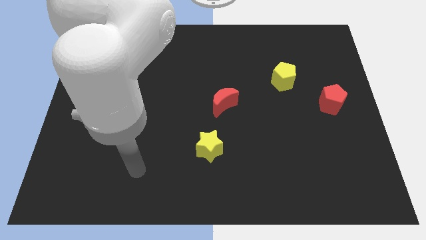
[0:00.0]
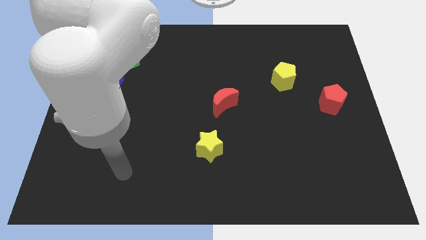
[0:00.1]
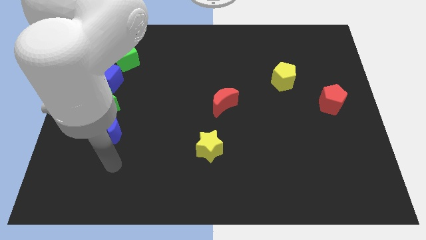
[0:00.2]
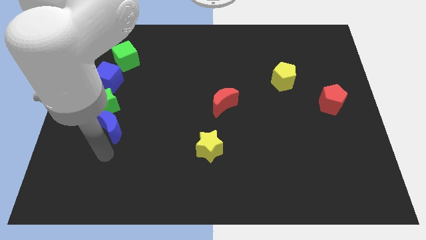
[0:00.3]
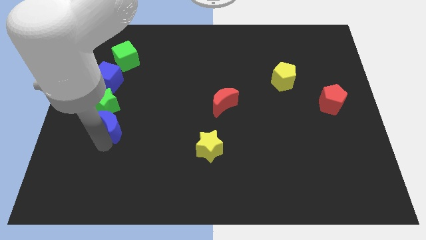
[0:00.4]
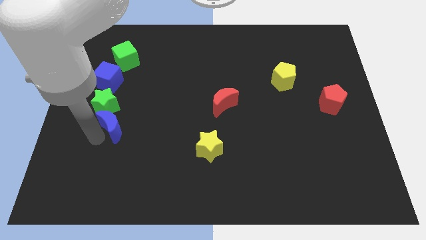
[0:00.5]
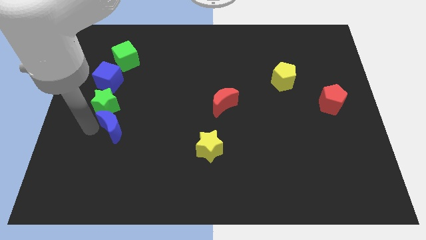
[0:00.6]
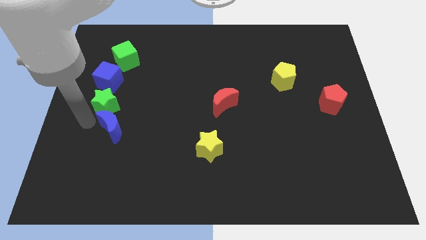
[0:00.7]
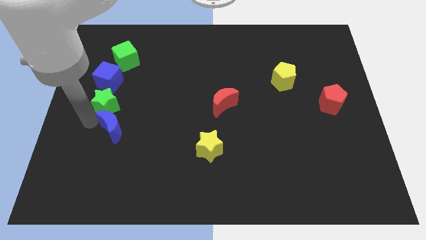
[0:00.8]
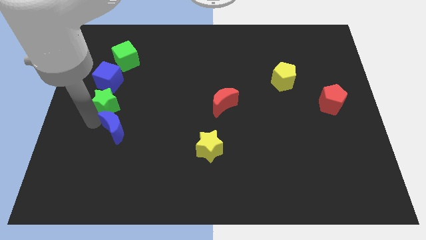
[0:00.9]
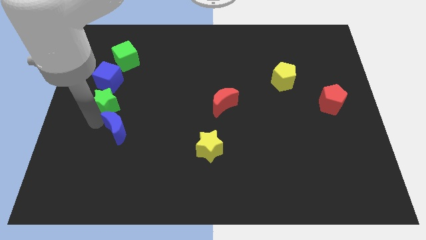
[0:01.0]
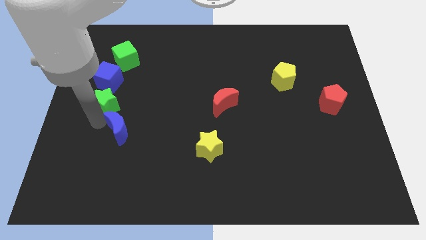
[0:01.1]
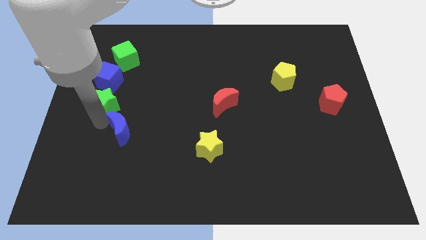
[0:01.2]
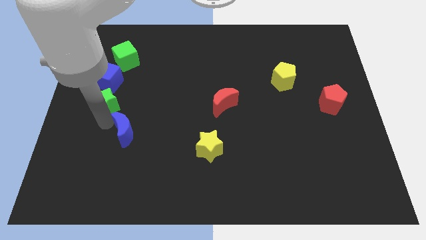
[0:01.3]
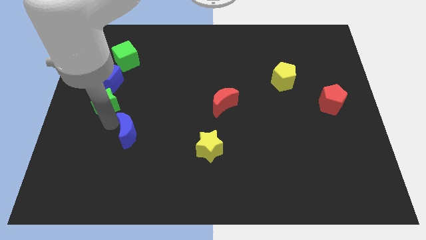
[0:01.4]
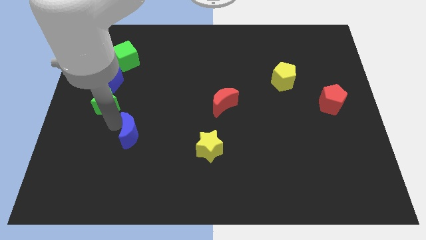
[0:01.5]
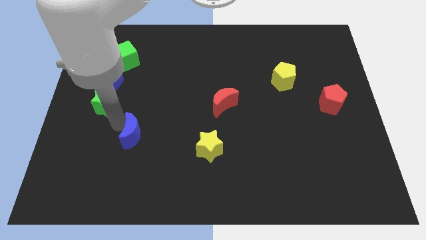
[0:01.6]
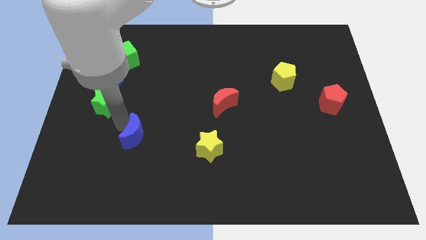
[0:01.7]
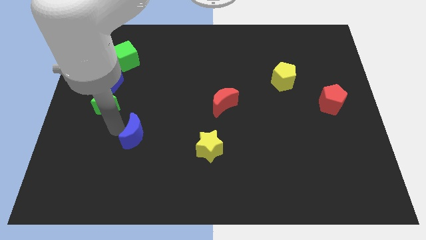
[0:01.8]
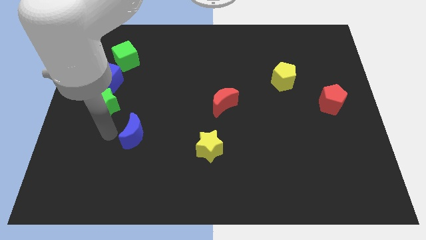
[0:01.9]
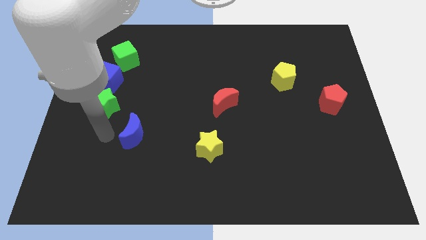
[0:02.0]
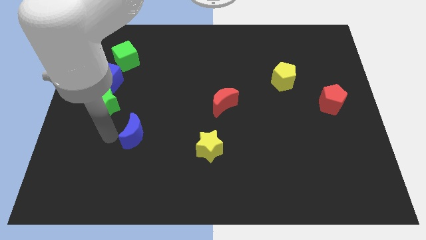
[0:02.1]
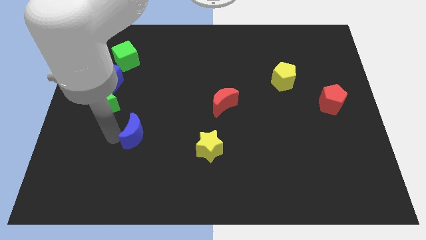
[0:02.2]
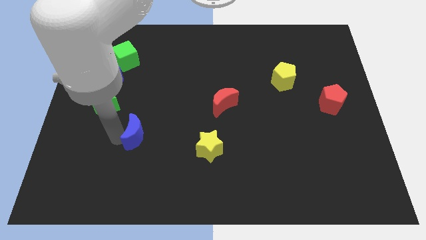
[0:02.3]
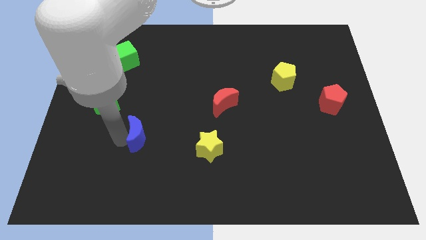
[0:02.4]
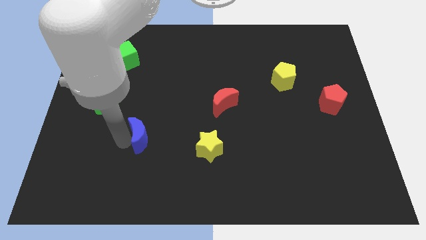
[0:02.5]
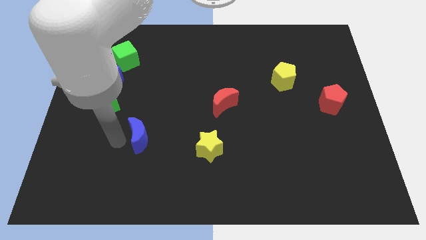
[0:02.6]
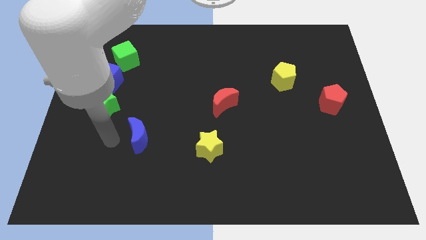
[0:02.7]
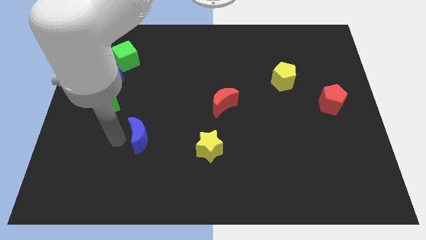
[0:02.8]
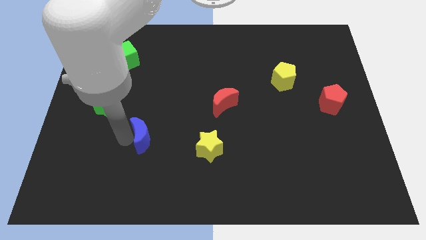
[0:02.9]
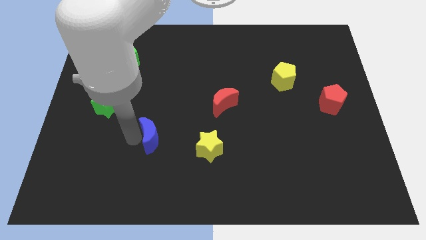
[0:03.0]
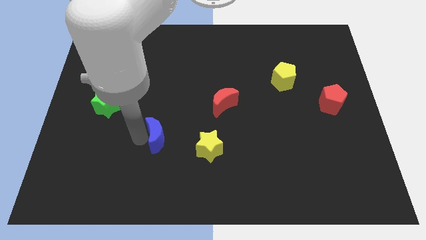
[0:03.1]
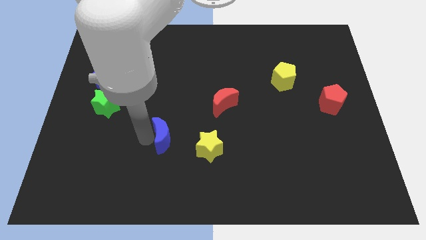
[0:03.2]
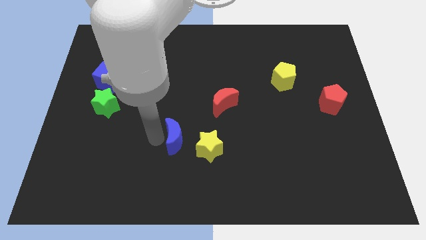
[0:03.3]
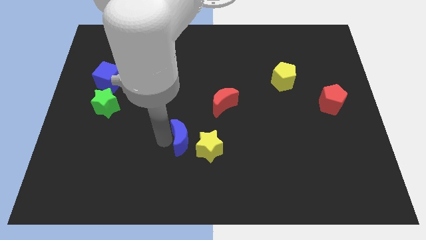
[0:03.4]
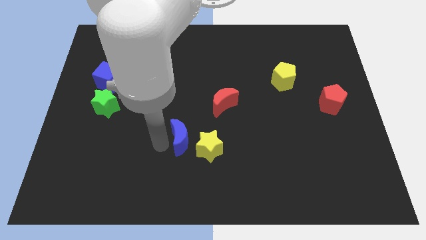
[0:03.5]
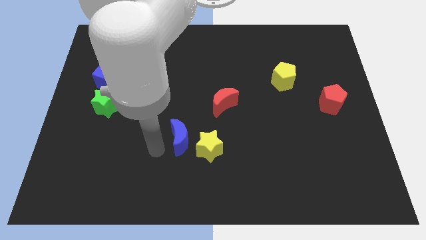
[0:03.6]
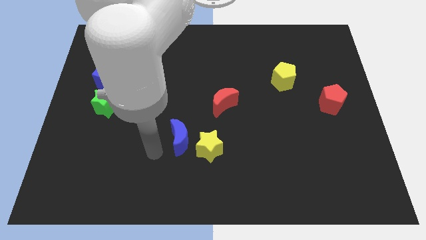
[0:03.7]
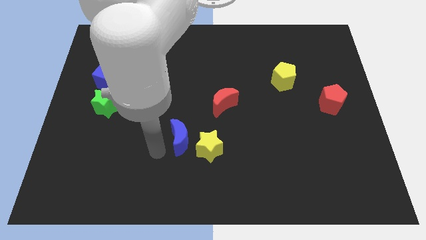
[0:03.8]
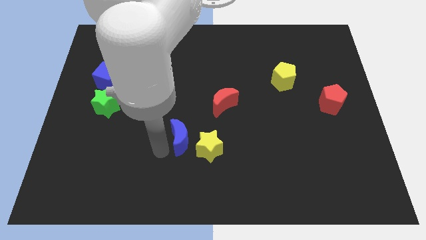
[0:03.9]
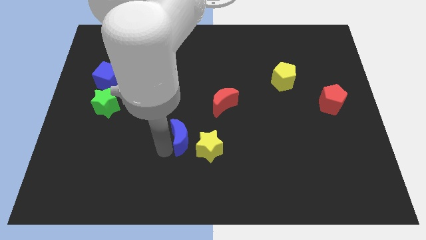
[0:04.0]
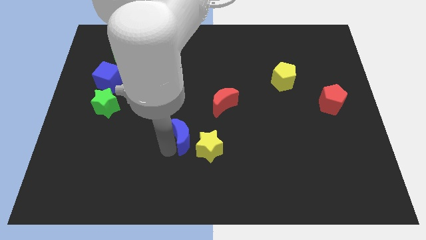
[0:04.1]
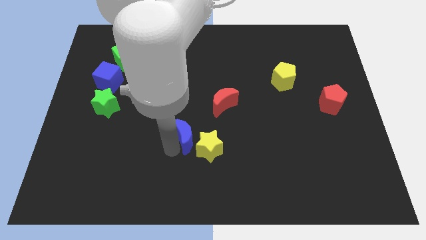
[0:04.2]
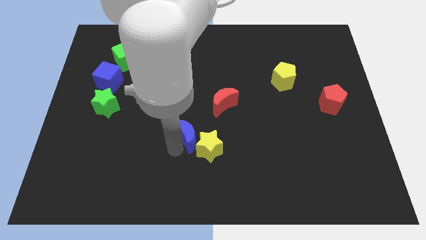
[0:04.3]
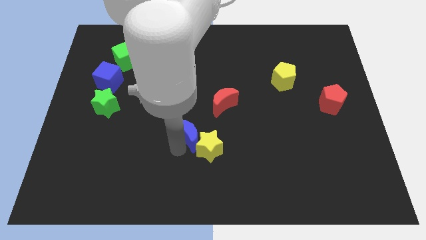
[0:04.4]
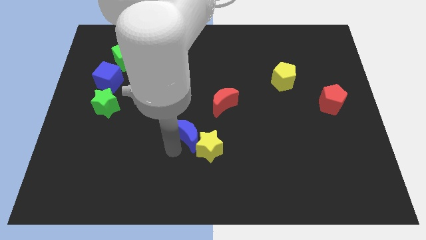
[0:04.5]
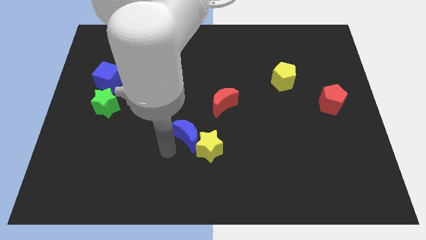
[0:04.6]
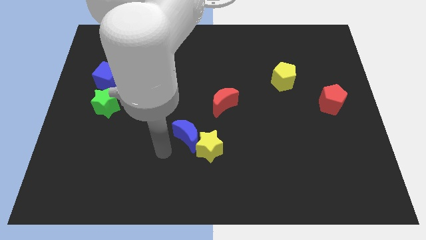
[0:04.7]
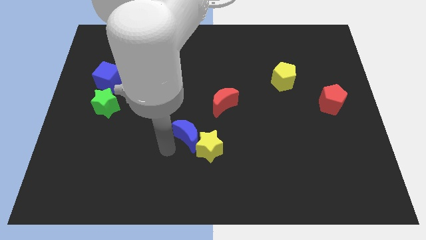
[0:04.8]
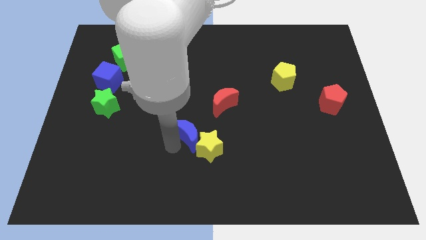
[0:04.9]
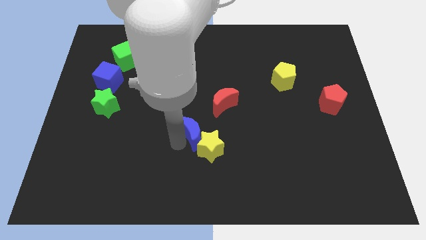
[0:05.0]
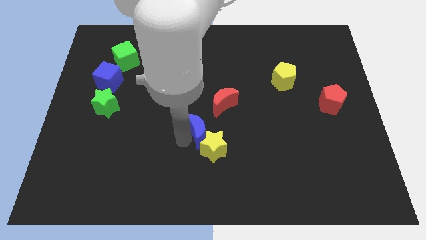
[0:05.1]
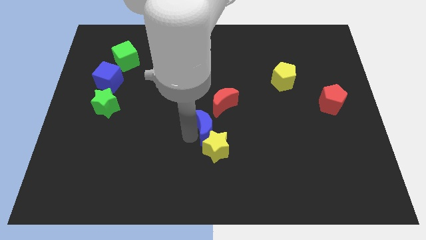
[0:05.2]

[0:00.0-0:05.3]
move the blue moon to the right

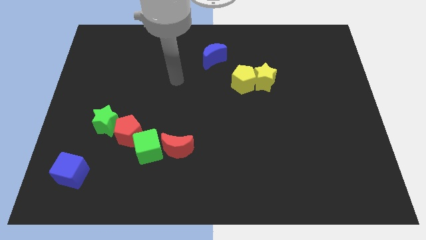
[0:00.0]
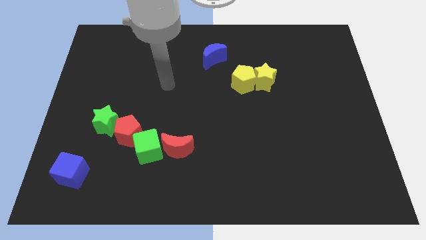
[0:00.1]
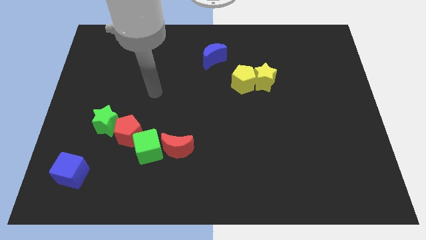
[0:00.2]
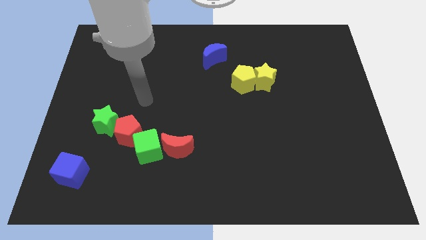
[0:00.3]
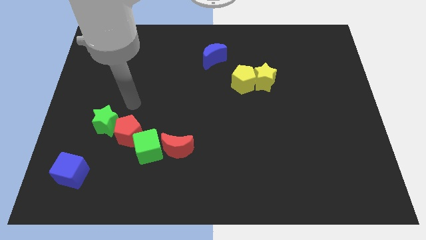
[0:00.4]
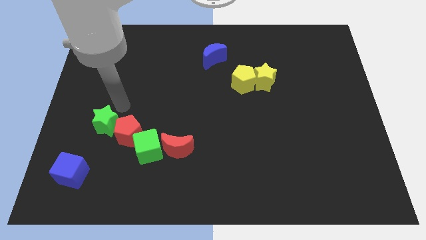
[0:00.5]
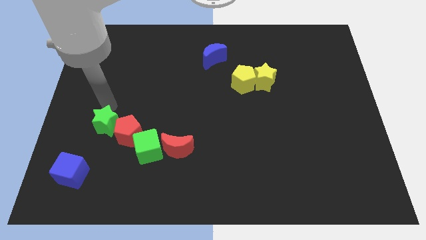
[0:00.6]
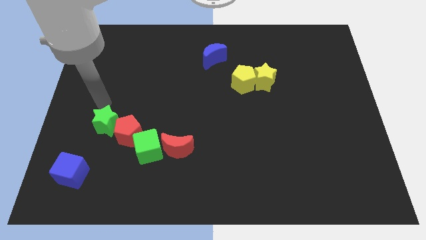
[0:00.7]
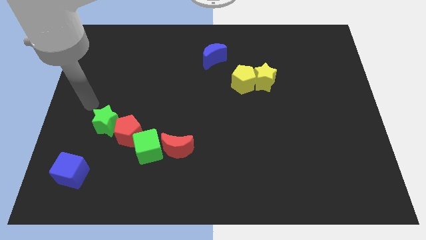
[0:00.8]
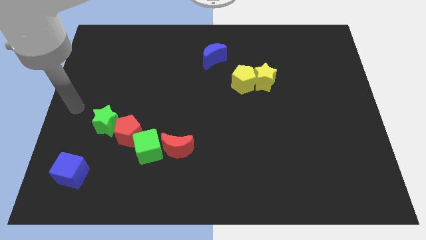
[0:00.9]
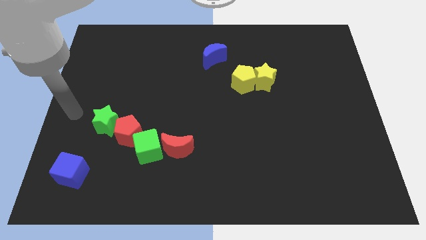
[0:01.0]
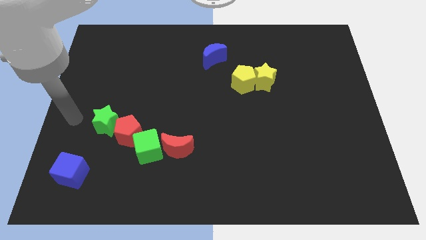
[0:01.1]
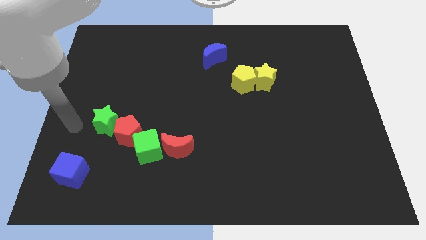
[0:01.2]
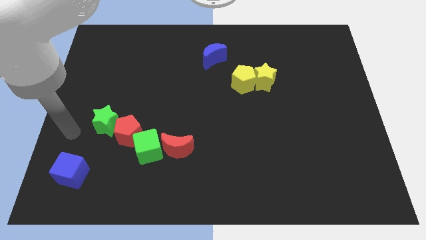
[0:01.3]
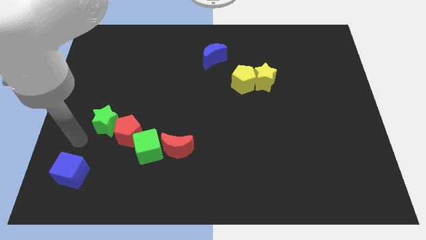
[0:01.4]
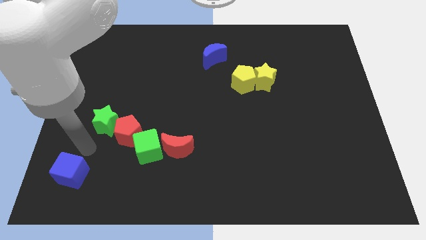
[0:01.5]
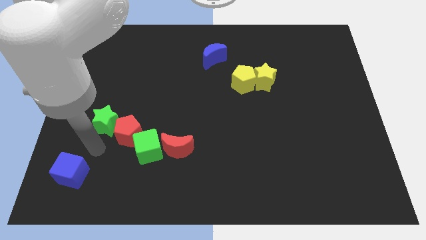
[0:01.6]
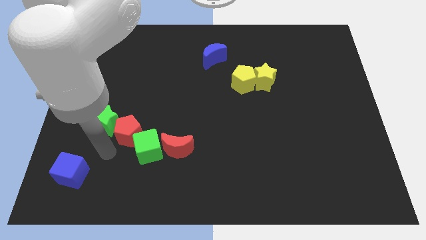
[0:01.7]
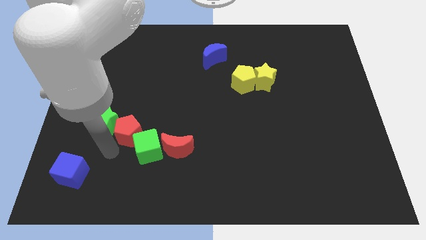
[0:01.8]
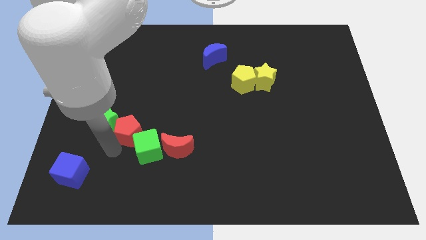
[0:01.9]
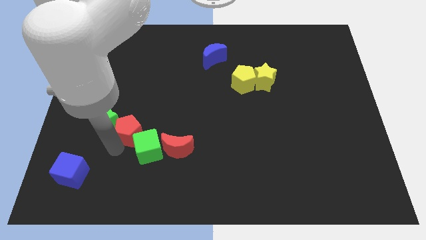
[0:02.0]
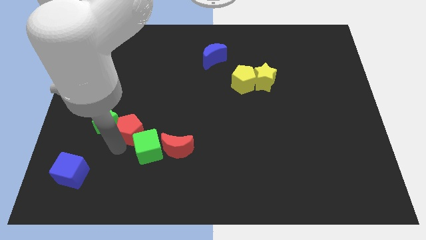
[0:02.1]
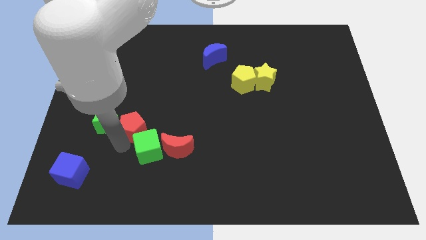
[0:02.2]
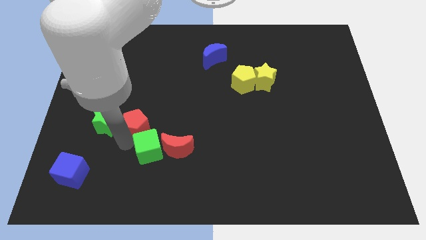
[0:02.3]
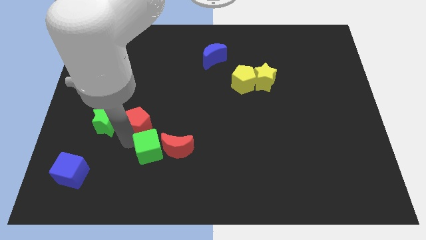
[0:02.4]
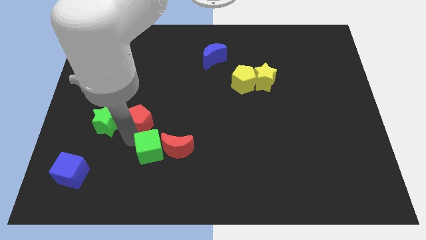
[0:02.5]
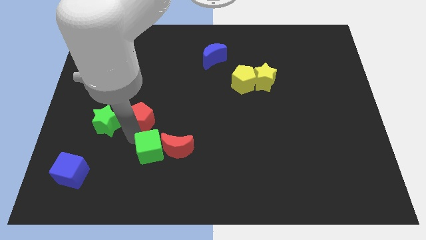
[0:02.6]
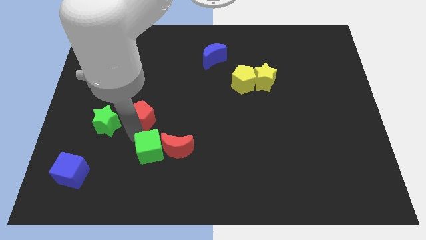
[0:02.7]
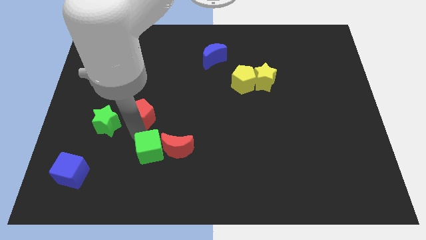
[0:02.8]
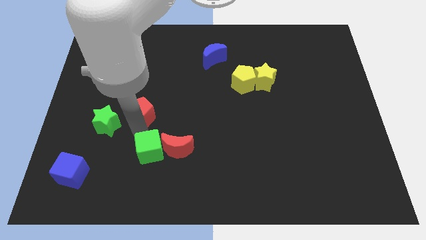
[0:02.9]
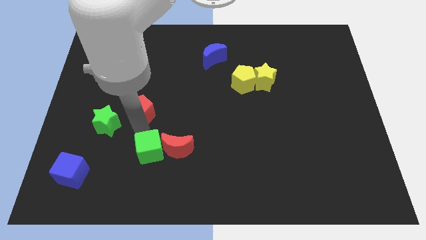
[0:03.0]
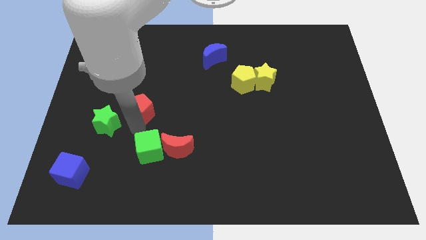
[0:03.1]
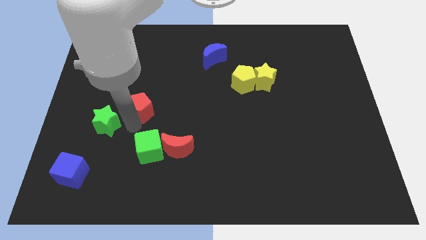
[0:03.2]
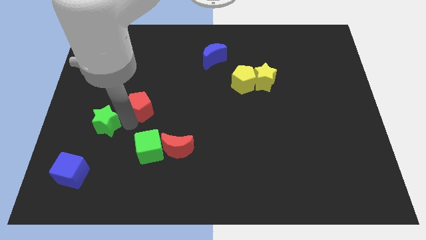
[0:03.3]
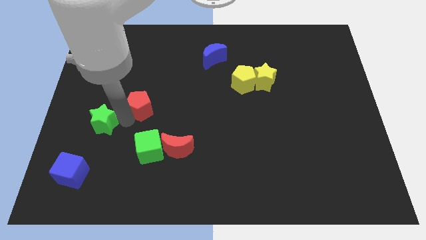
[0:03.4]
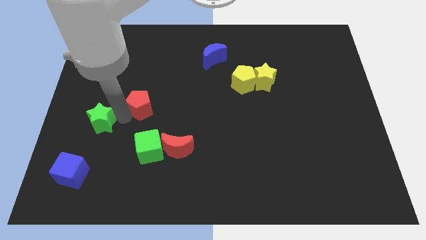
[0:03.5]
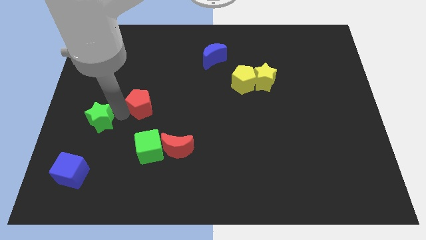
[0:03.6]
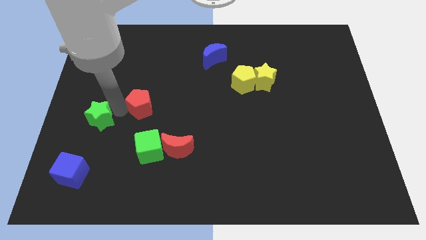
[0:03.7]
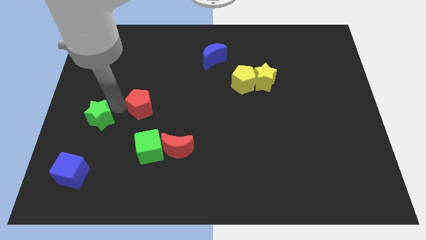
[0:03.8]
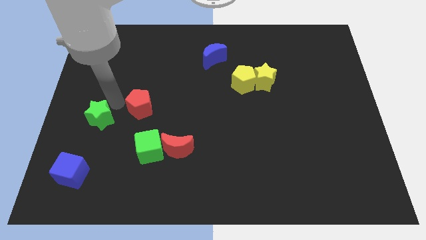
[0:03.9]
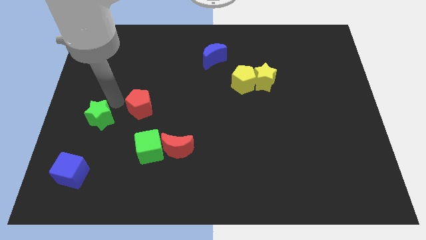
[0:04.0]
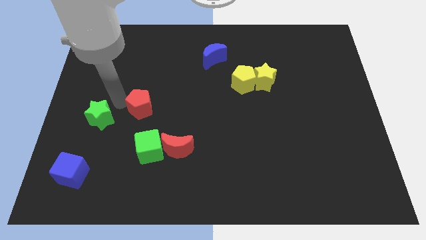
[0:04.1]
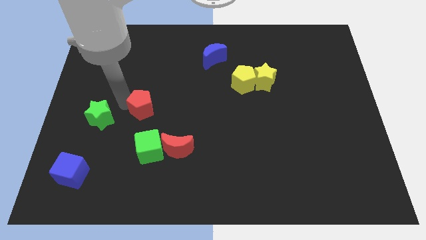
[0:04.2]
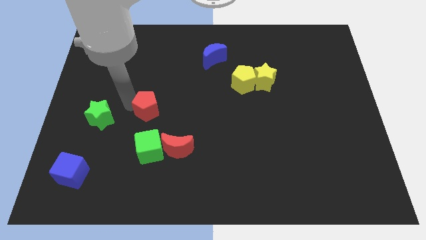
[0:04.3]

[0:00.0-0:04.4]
slide the red pentagon a little diagonally up and to the right
